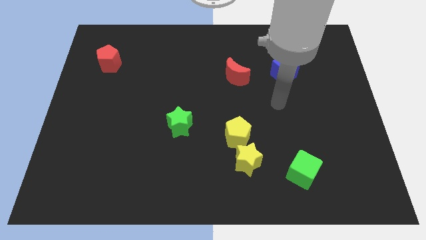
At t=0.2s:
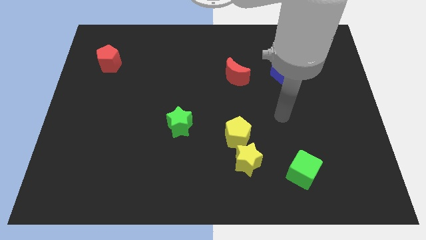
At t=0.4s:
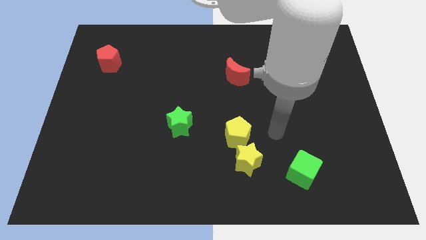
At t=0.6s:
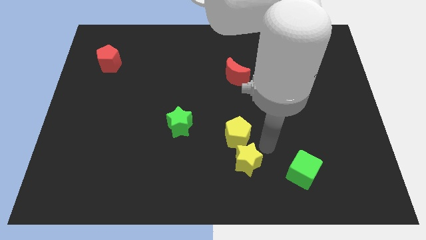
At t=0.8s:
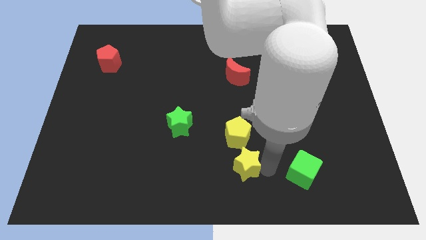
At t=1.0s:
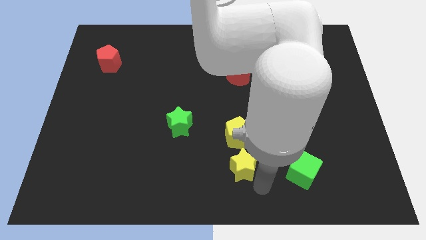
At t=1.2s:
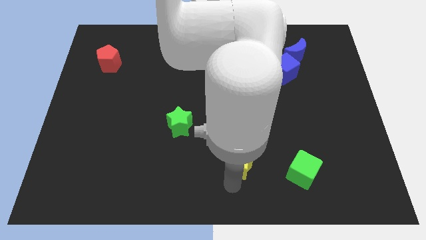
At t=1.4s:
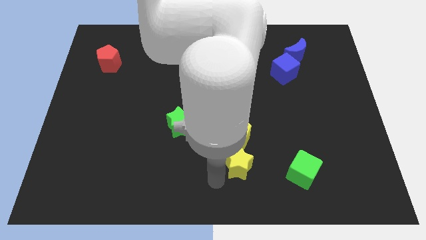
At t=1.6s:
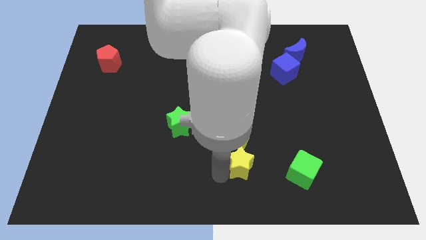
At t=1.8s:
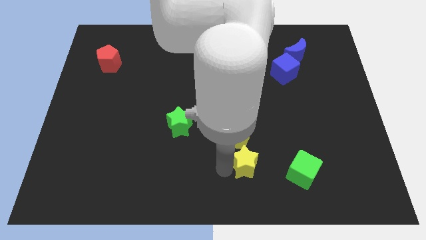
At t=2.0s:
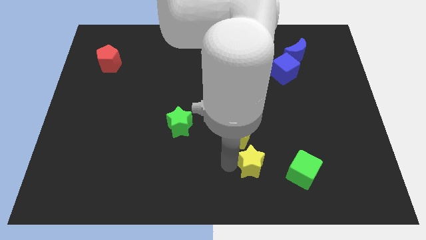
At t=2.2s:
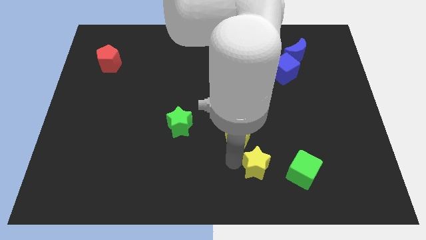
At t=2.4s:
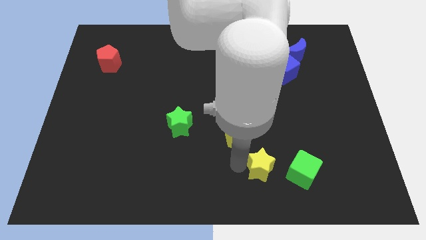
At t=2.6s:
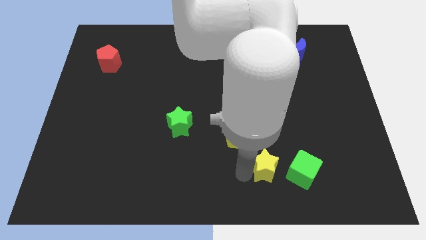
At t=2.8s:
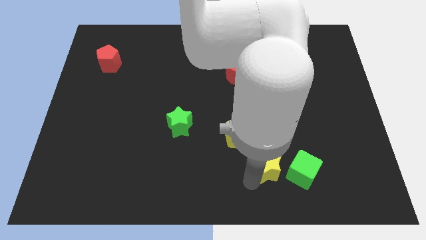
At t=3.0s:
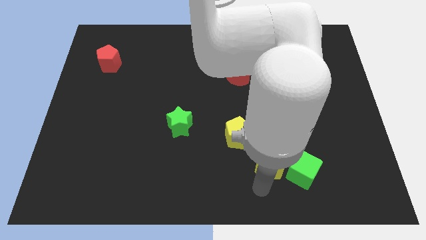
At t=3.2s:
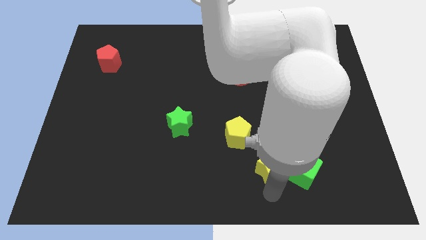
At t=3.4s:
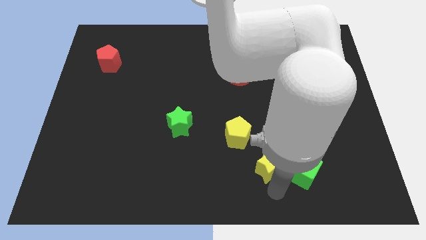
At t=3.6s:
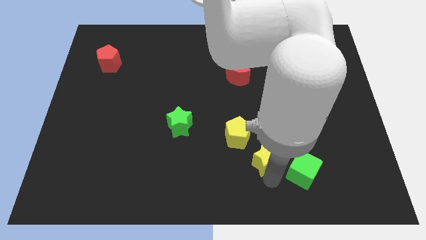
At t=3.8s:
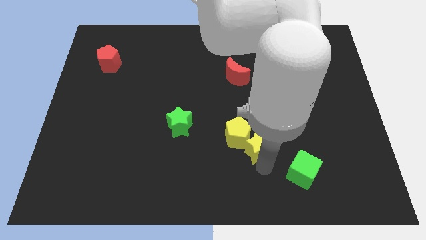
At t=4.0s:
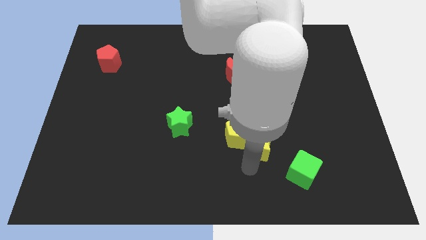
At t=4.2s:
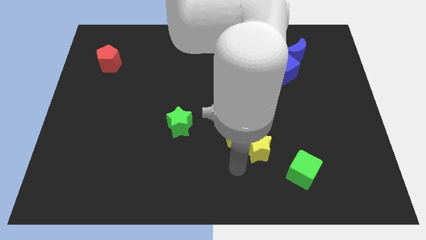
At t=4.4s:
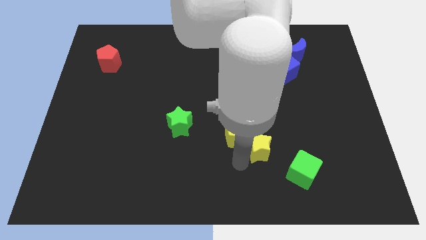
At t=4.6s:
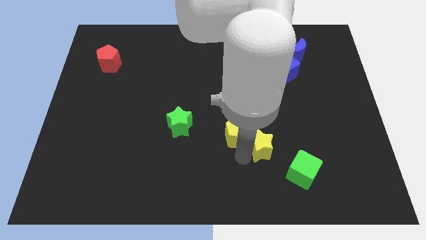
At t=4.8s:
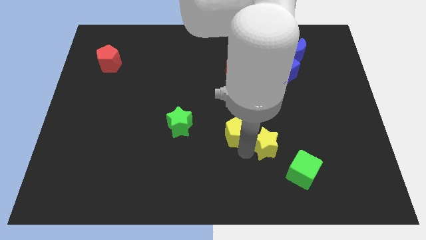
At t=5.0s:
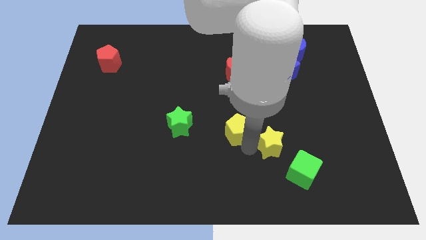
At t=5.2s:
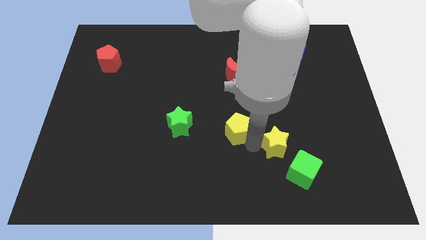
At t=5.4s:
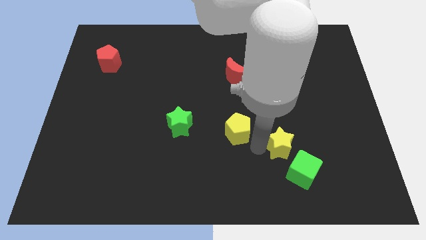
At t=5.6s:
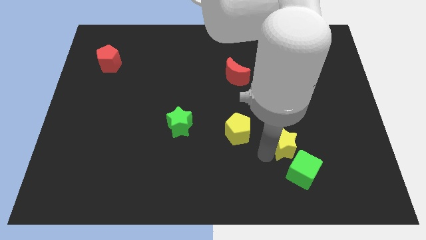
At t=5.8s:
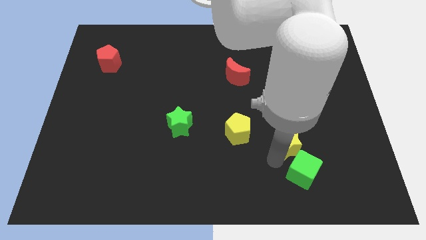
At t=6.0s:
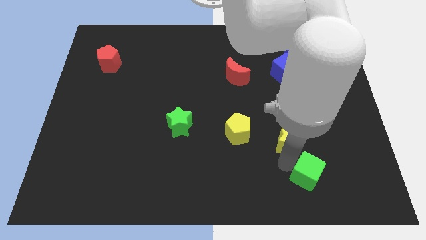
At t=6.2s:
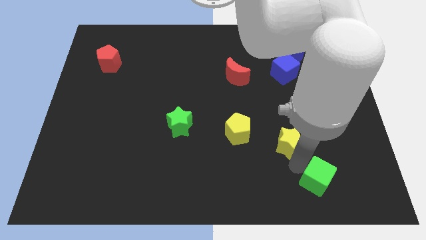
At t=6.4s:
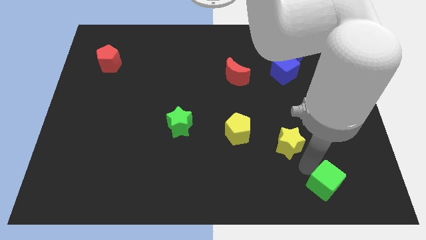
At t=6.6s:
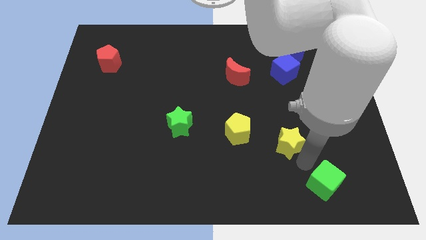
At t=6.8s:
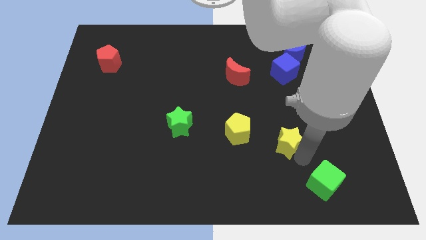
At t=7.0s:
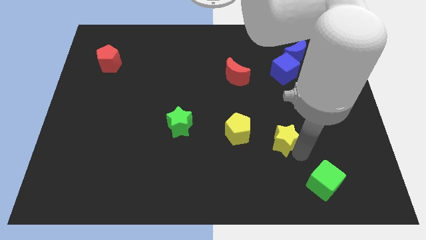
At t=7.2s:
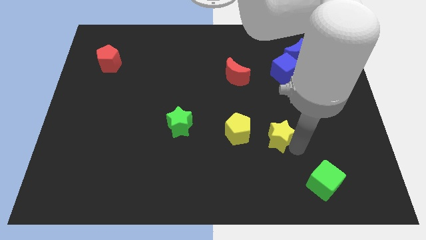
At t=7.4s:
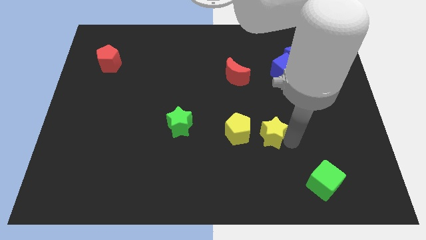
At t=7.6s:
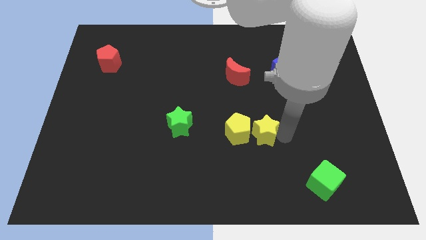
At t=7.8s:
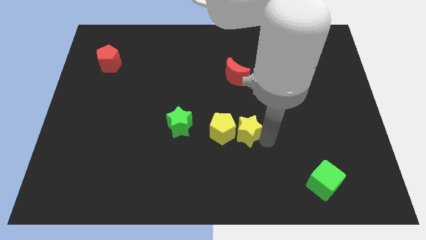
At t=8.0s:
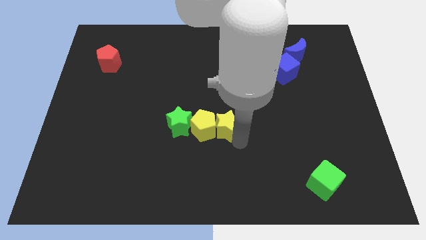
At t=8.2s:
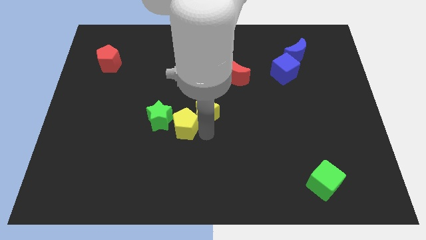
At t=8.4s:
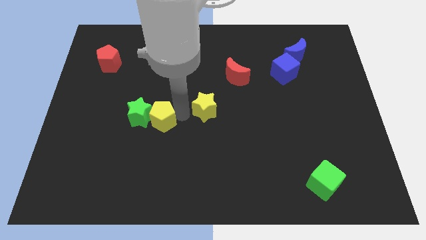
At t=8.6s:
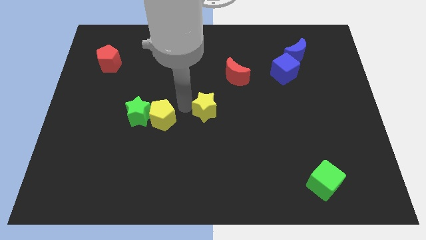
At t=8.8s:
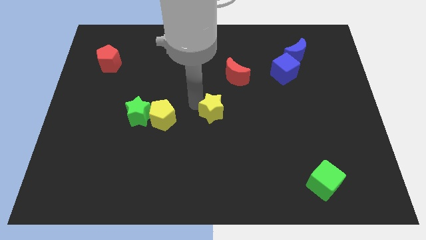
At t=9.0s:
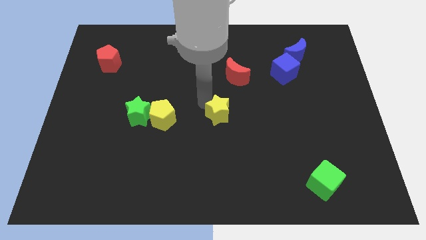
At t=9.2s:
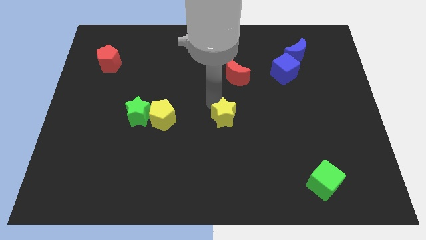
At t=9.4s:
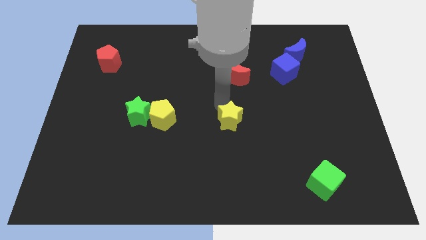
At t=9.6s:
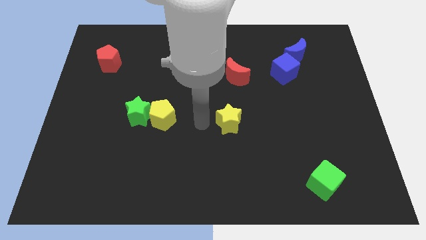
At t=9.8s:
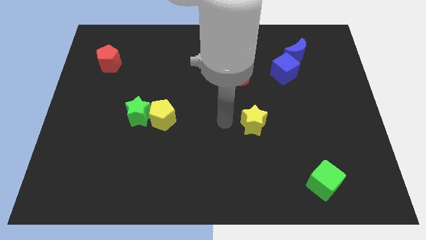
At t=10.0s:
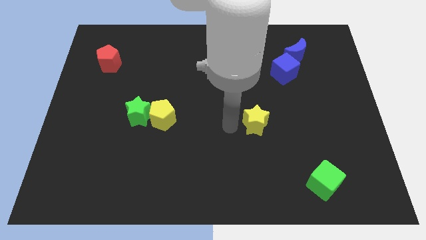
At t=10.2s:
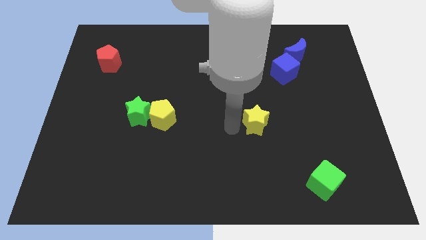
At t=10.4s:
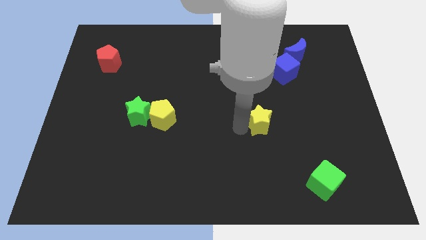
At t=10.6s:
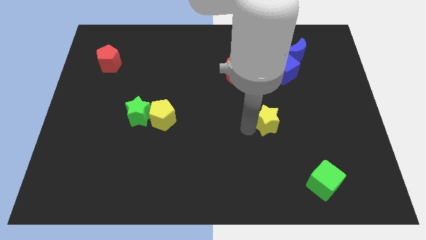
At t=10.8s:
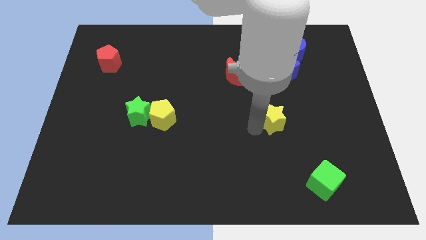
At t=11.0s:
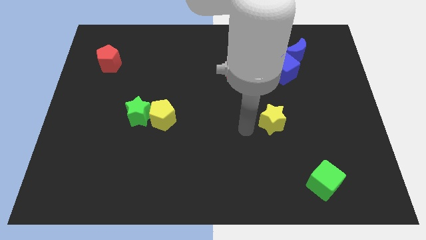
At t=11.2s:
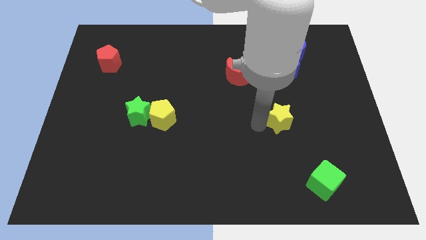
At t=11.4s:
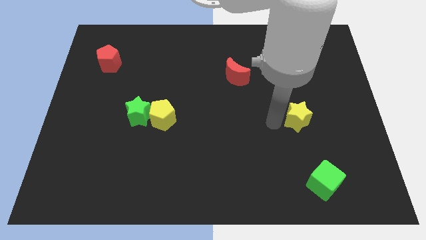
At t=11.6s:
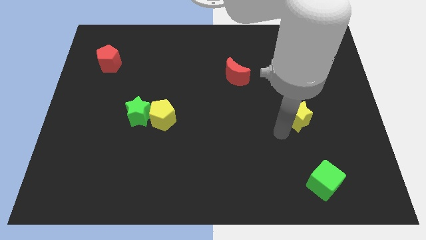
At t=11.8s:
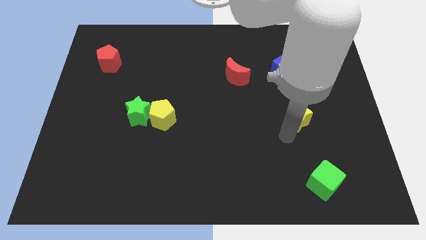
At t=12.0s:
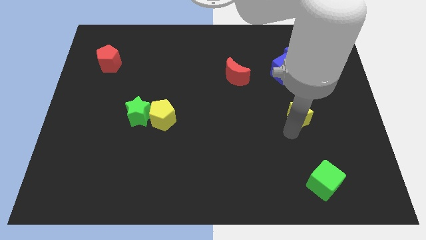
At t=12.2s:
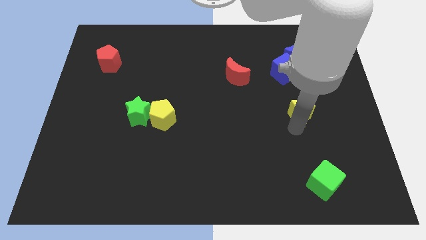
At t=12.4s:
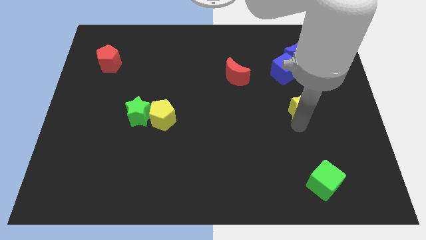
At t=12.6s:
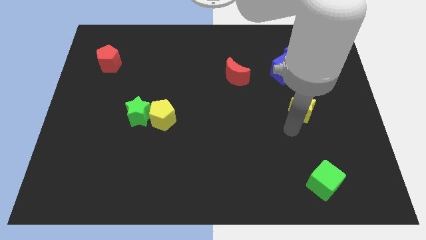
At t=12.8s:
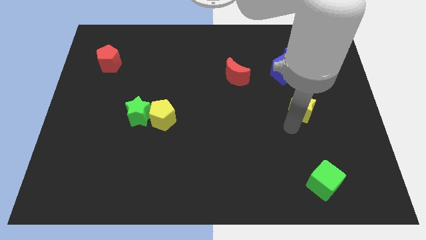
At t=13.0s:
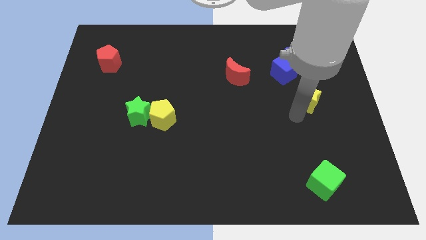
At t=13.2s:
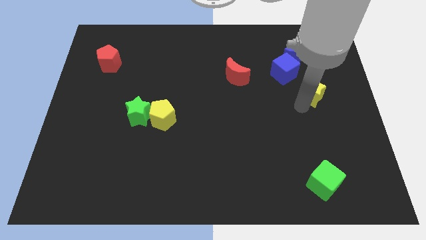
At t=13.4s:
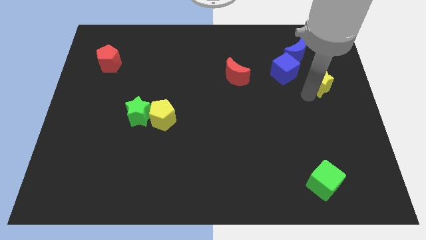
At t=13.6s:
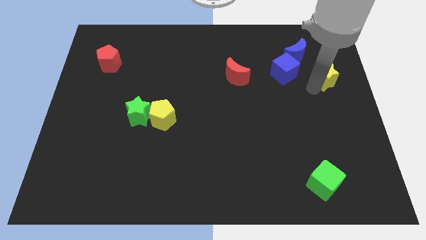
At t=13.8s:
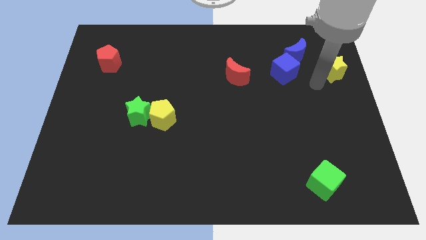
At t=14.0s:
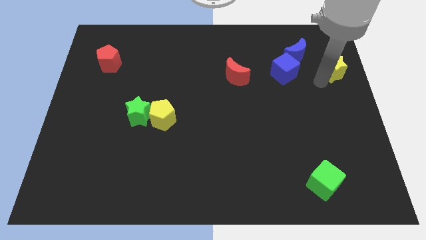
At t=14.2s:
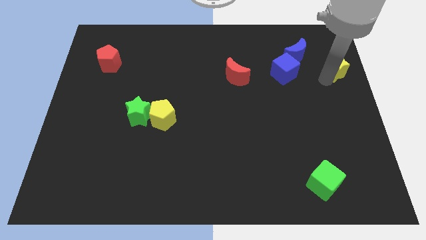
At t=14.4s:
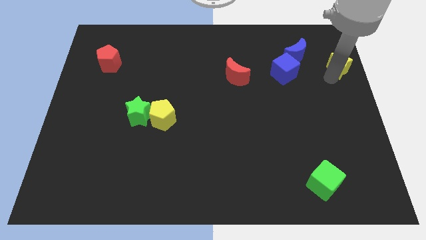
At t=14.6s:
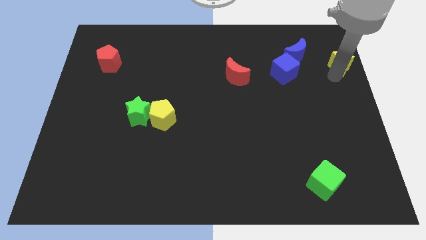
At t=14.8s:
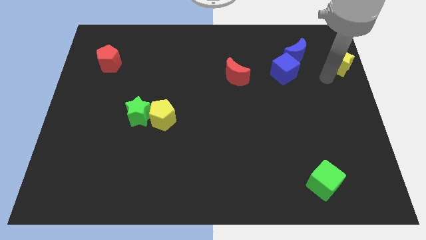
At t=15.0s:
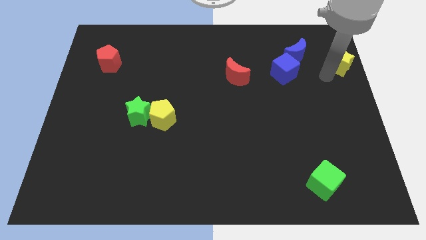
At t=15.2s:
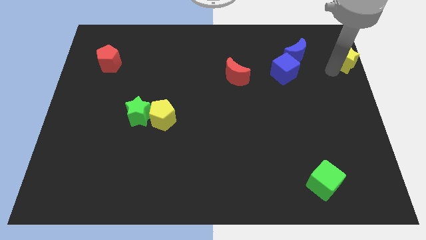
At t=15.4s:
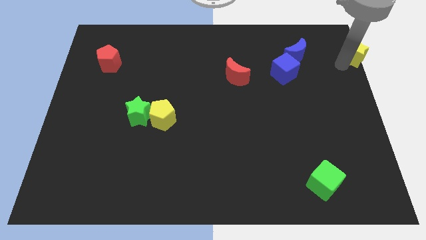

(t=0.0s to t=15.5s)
put the yellow star to the top right
